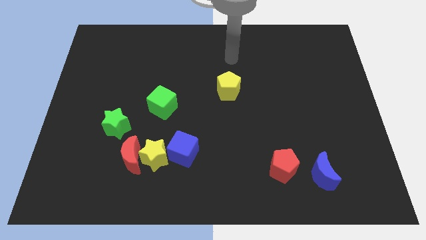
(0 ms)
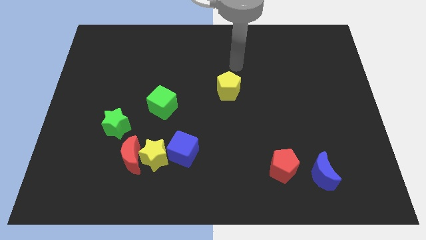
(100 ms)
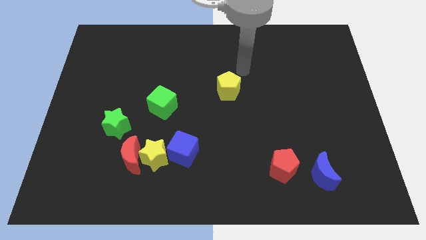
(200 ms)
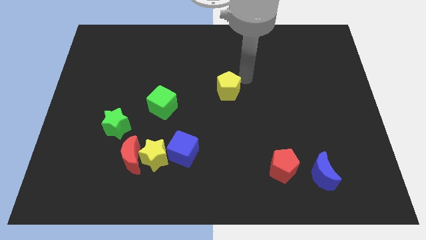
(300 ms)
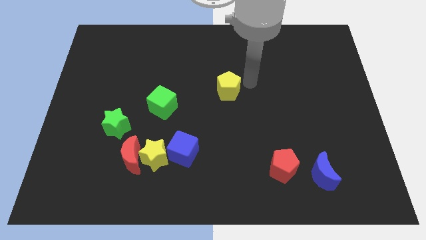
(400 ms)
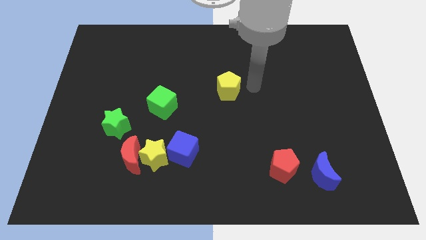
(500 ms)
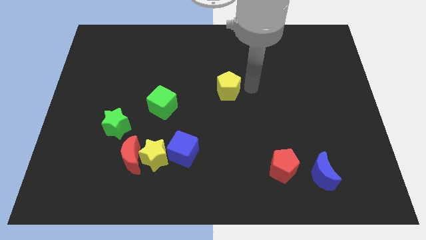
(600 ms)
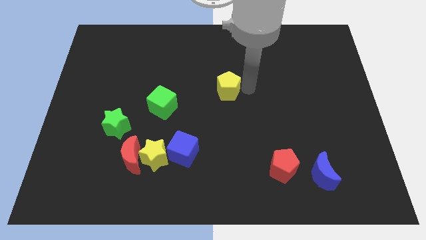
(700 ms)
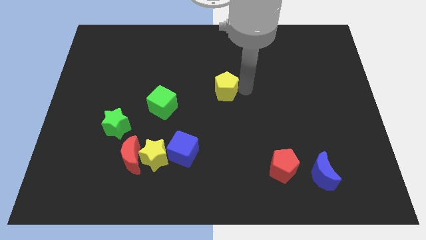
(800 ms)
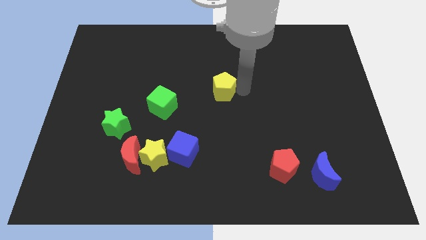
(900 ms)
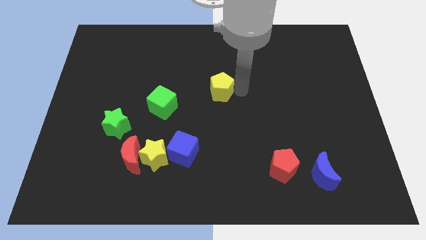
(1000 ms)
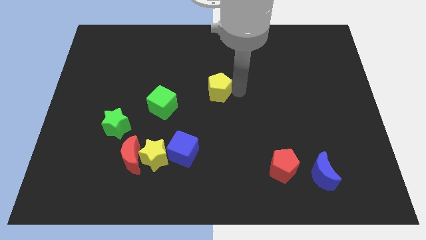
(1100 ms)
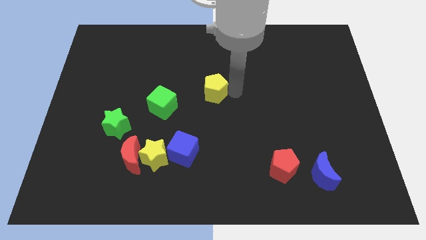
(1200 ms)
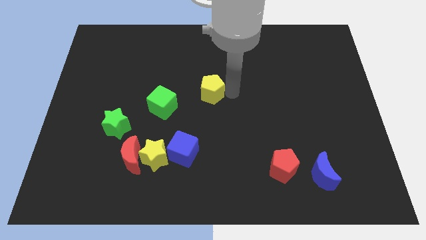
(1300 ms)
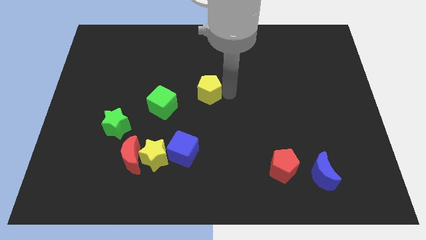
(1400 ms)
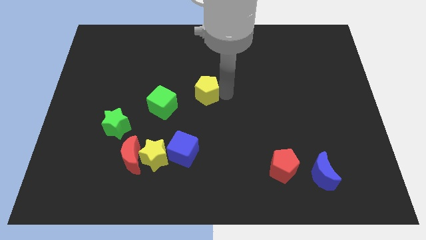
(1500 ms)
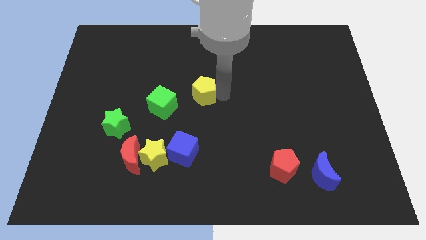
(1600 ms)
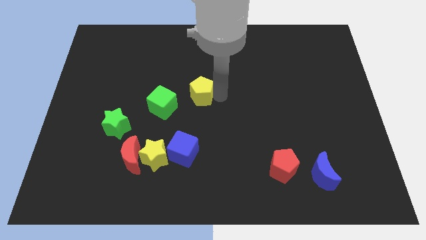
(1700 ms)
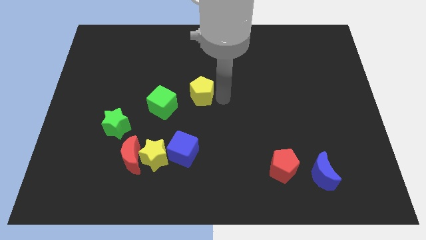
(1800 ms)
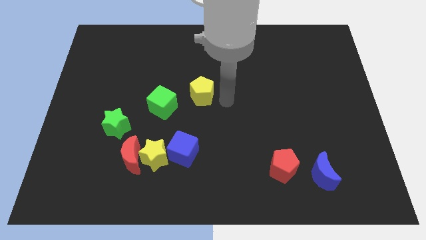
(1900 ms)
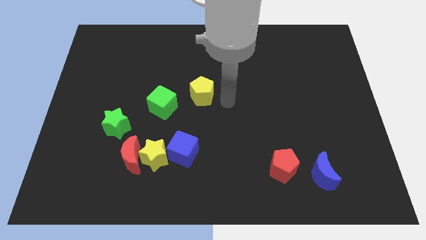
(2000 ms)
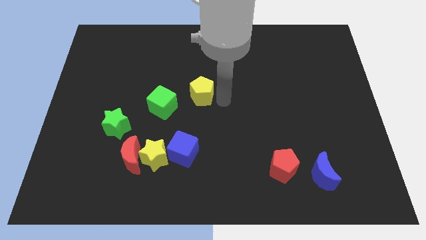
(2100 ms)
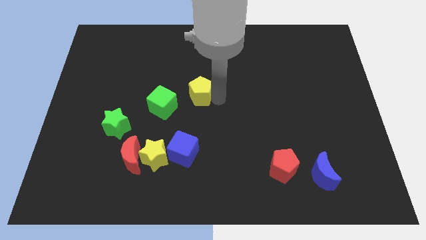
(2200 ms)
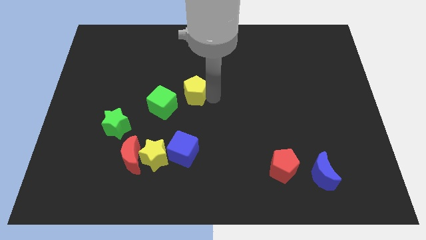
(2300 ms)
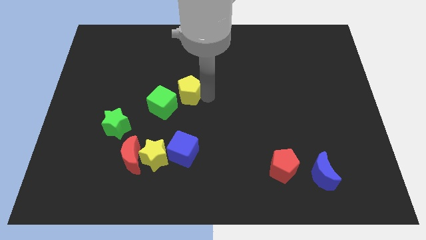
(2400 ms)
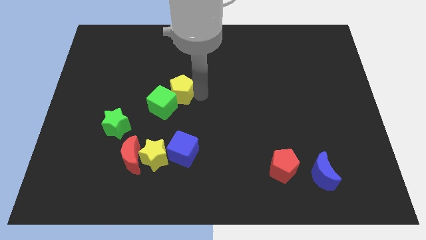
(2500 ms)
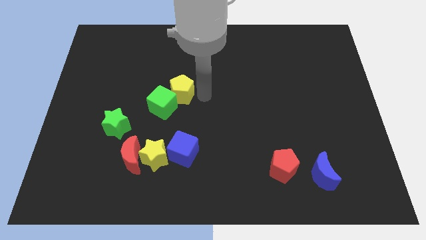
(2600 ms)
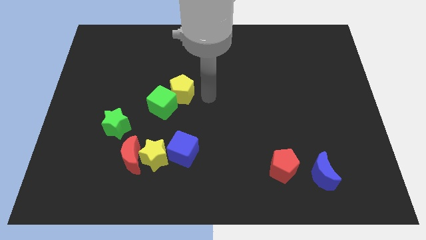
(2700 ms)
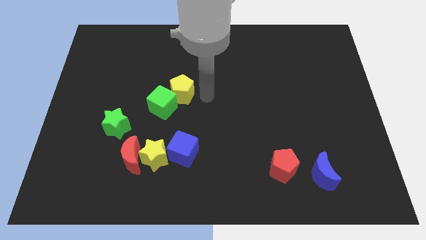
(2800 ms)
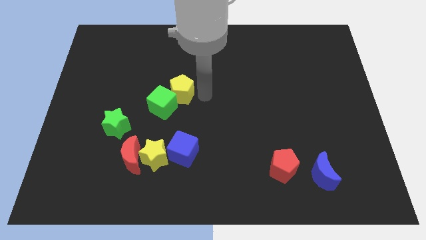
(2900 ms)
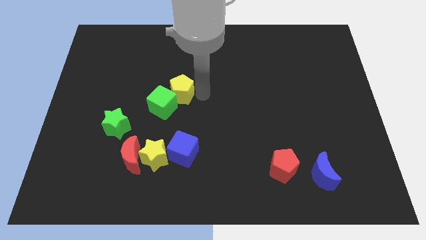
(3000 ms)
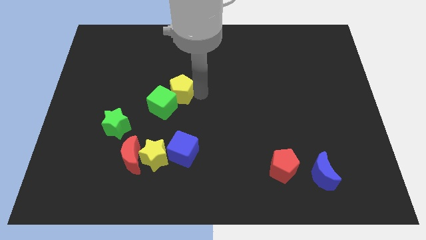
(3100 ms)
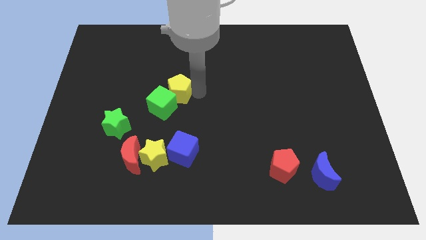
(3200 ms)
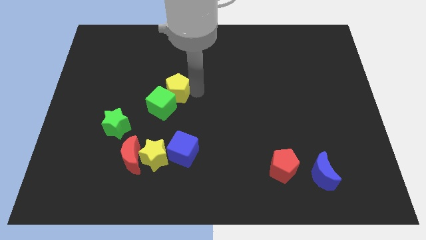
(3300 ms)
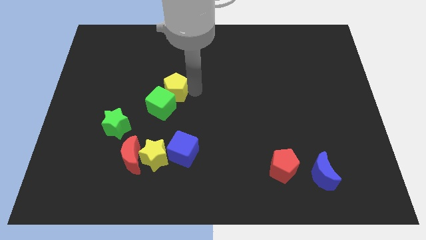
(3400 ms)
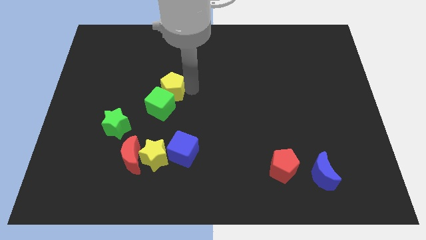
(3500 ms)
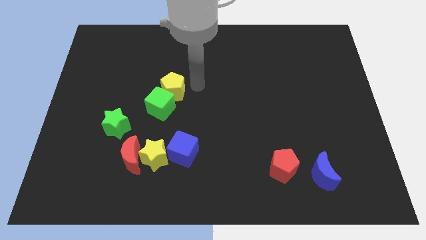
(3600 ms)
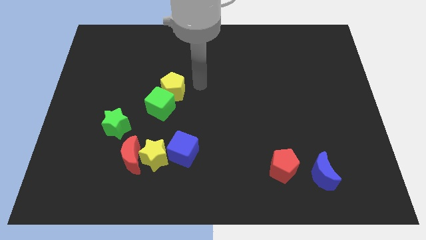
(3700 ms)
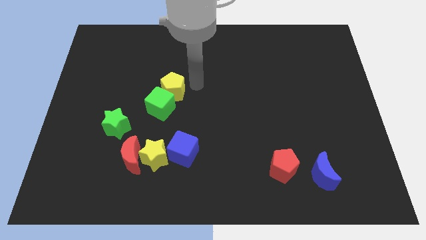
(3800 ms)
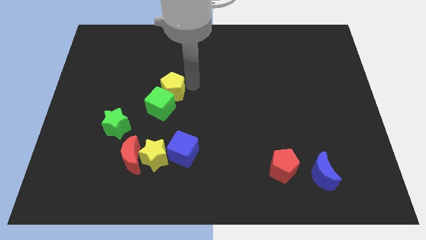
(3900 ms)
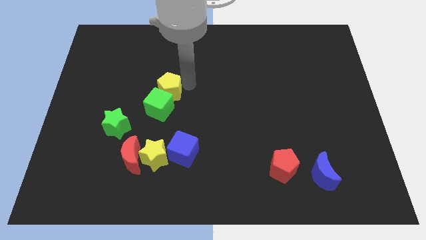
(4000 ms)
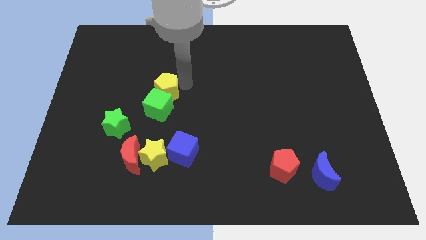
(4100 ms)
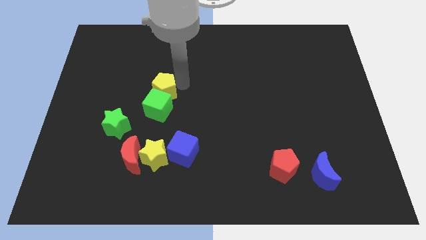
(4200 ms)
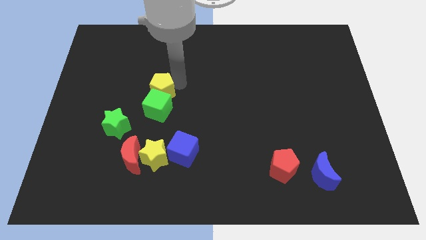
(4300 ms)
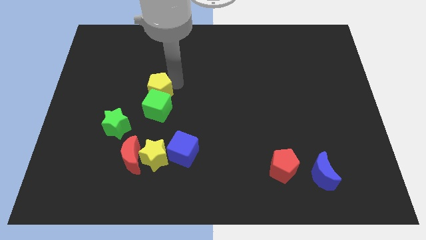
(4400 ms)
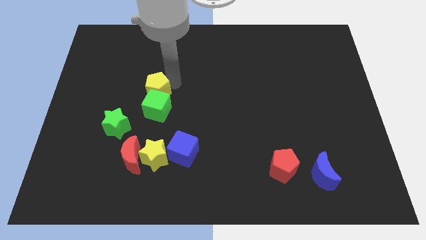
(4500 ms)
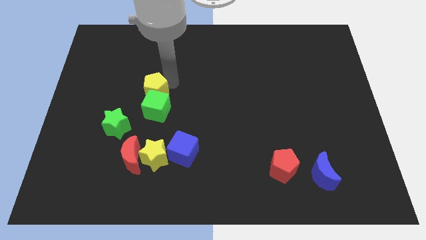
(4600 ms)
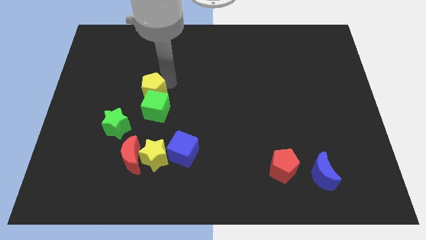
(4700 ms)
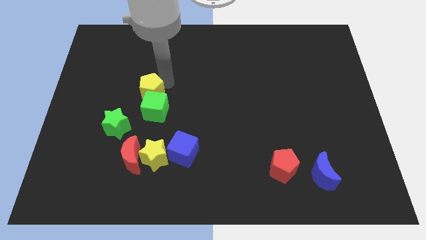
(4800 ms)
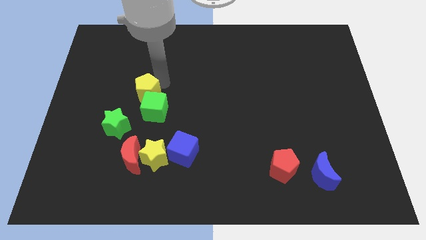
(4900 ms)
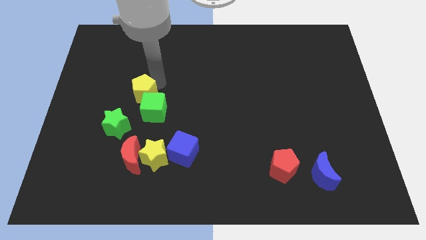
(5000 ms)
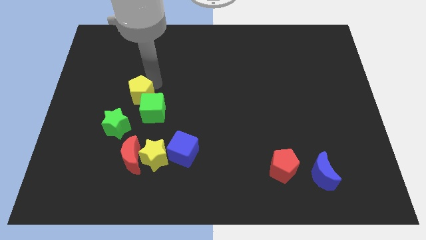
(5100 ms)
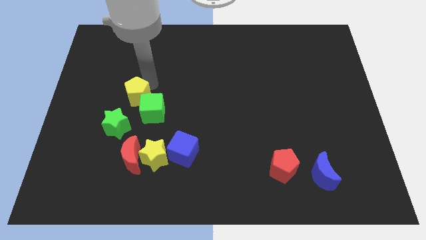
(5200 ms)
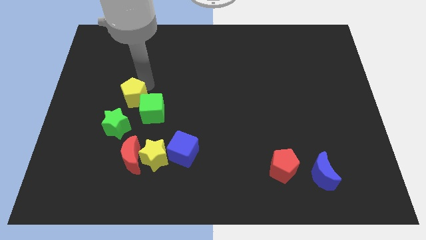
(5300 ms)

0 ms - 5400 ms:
slide the yellow pentagon just left of the green cube

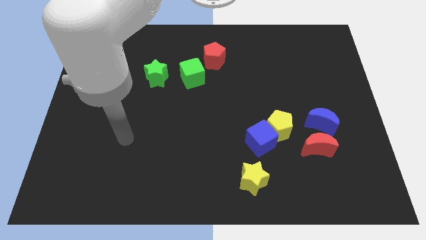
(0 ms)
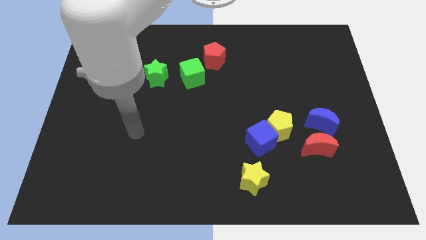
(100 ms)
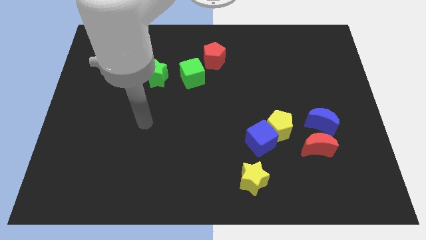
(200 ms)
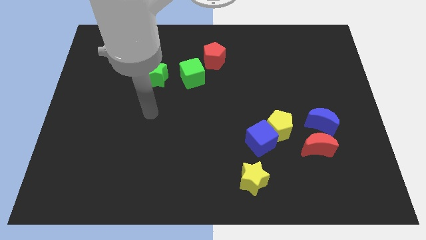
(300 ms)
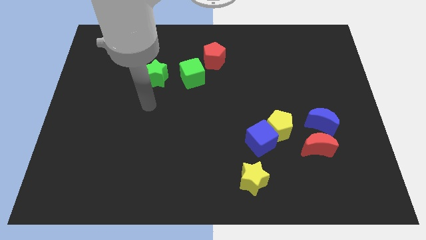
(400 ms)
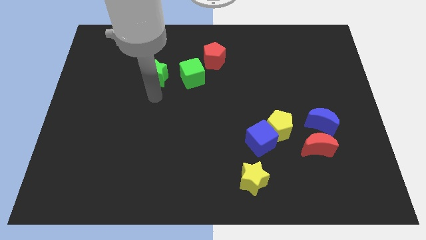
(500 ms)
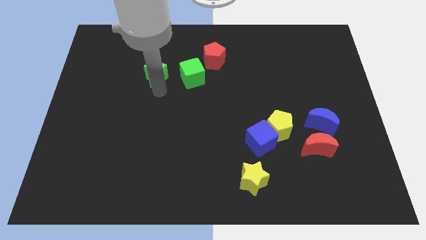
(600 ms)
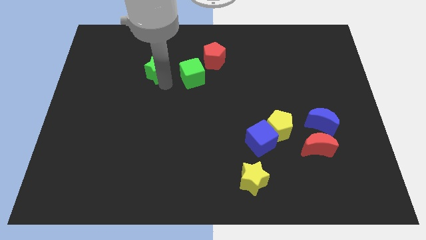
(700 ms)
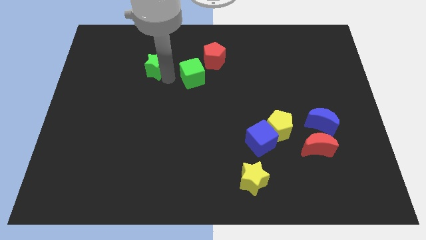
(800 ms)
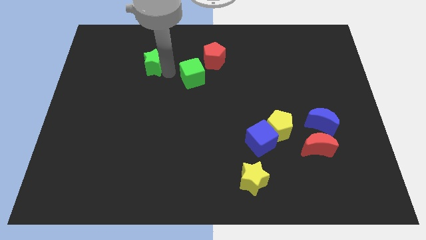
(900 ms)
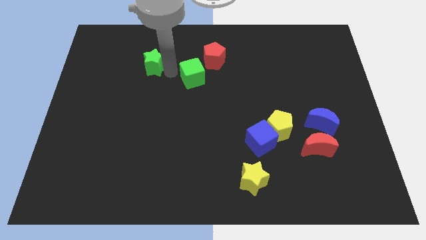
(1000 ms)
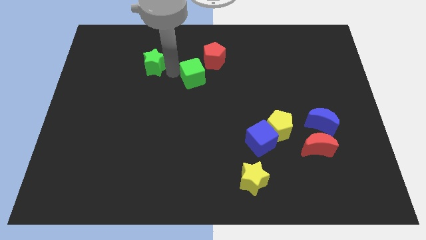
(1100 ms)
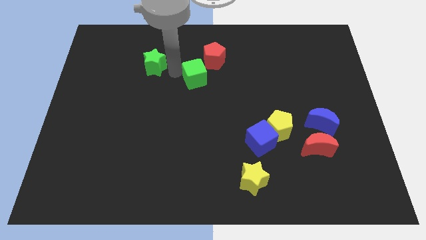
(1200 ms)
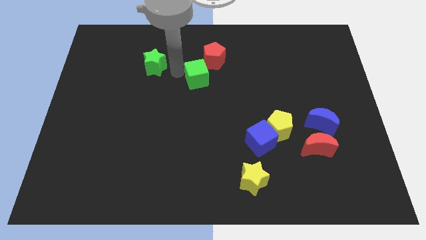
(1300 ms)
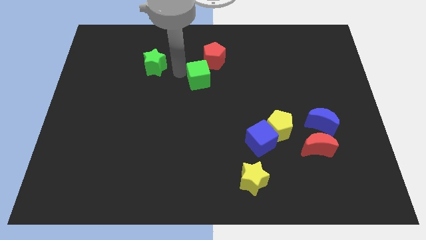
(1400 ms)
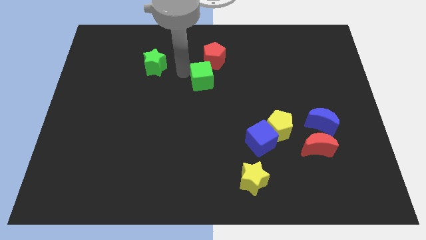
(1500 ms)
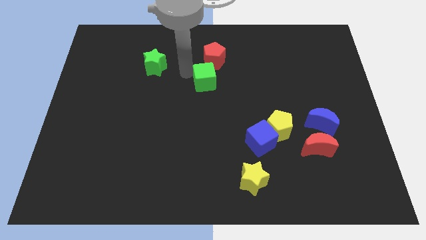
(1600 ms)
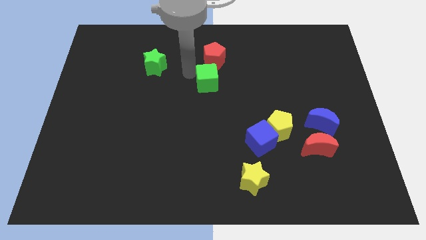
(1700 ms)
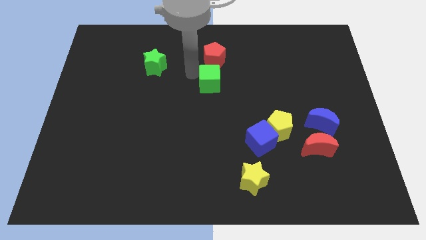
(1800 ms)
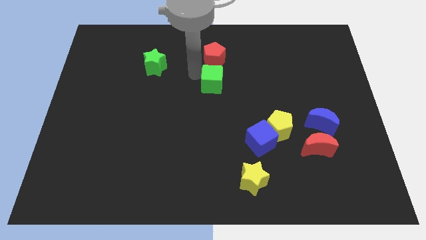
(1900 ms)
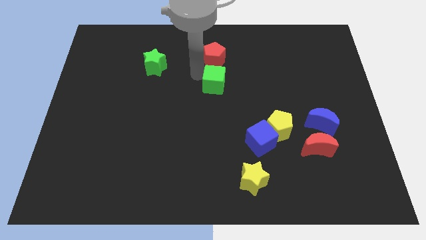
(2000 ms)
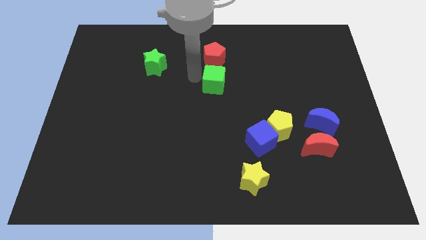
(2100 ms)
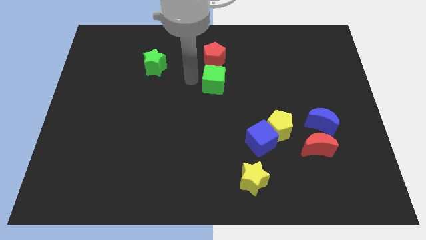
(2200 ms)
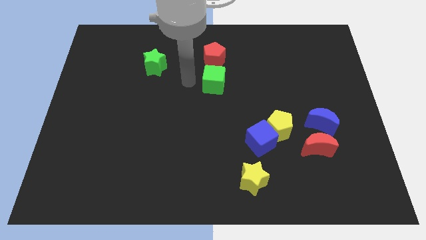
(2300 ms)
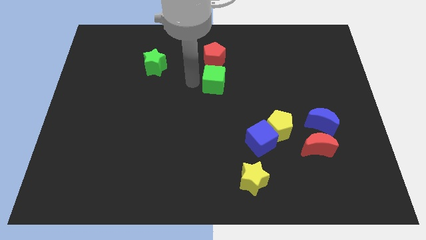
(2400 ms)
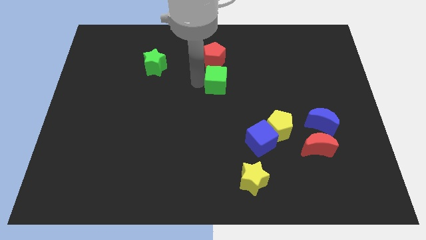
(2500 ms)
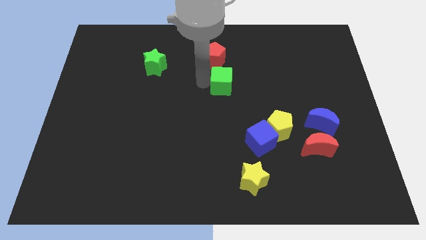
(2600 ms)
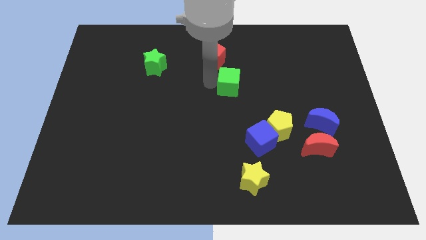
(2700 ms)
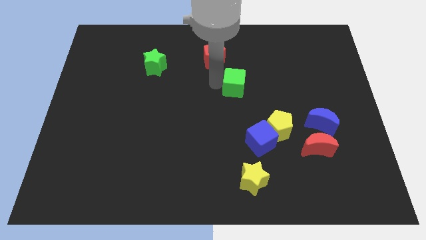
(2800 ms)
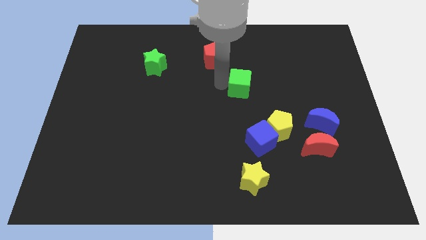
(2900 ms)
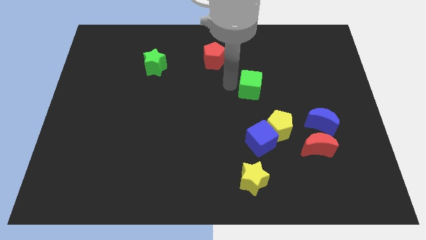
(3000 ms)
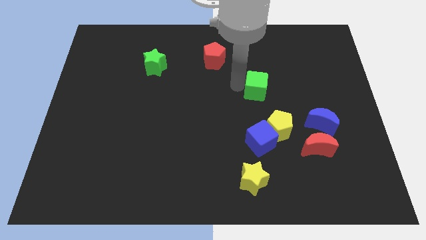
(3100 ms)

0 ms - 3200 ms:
put the green cube above the yellow pentagon
